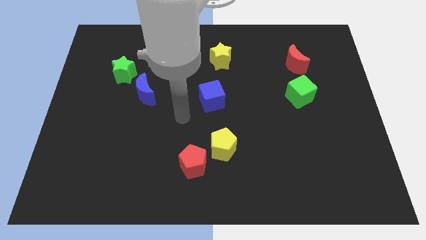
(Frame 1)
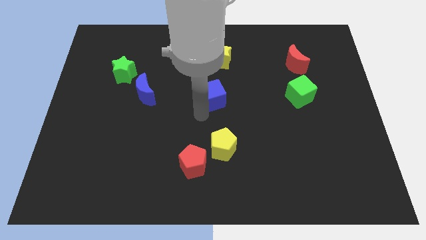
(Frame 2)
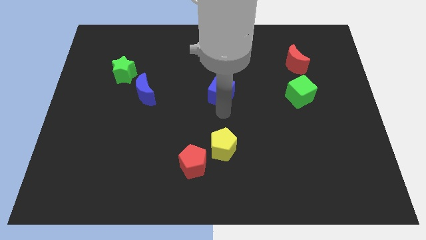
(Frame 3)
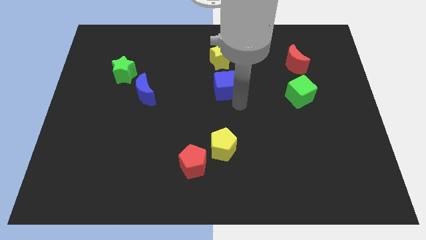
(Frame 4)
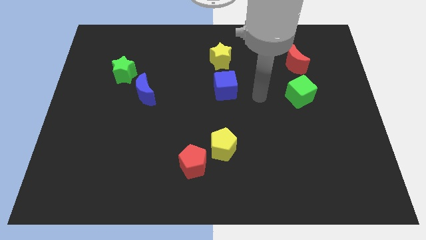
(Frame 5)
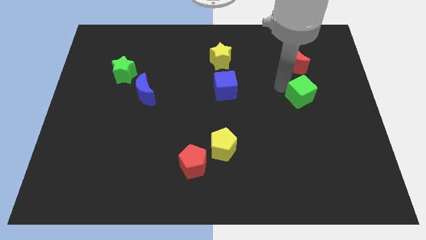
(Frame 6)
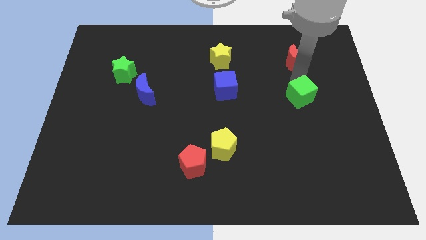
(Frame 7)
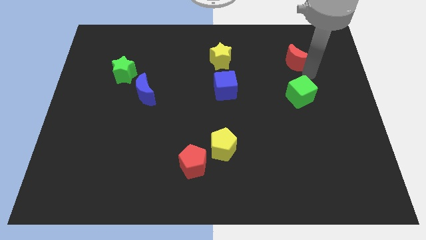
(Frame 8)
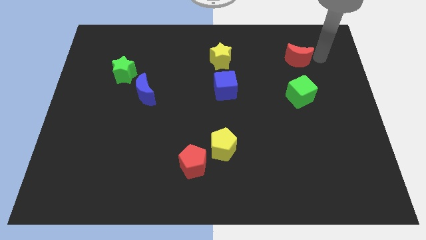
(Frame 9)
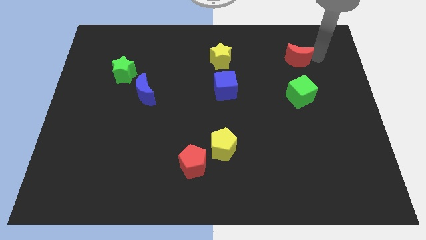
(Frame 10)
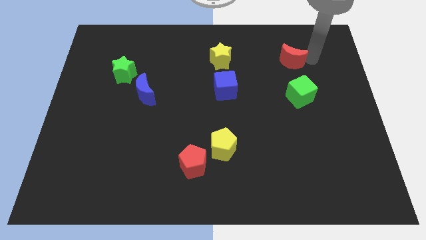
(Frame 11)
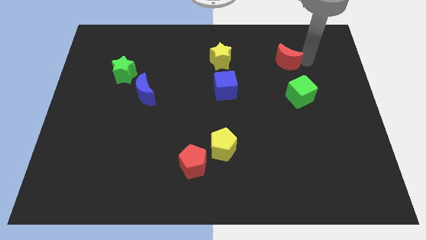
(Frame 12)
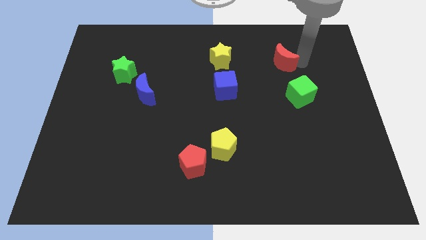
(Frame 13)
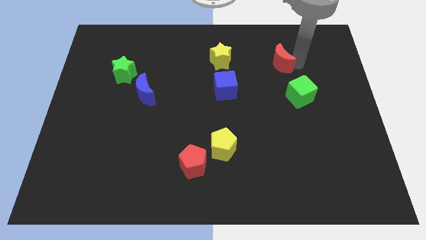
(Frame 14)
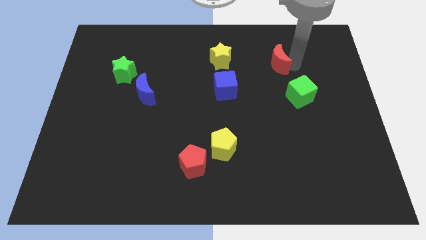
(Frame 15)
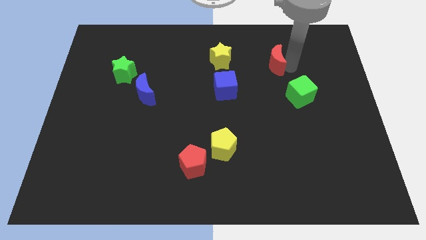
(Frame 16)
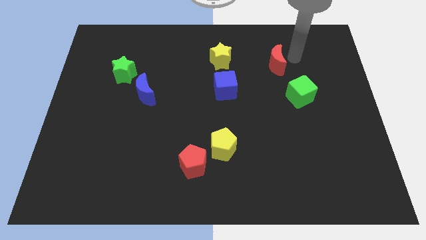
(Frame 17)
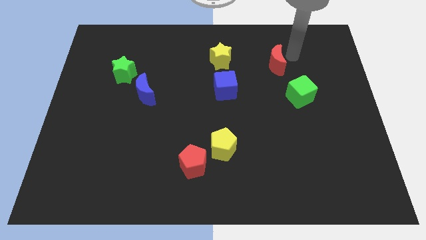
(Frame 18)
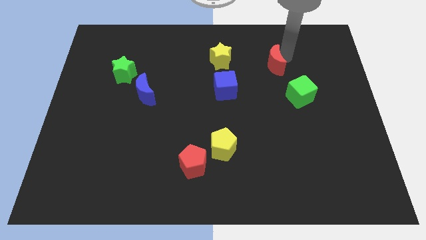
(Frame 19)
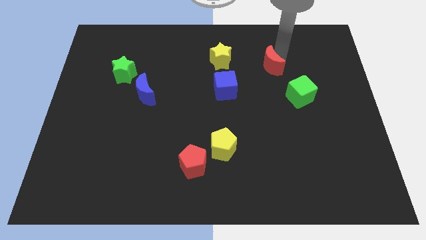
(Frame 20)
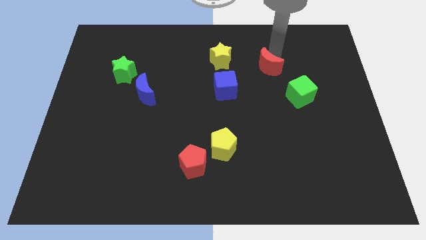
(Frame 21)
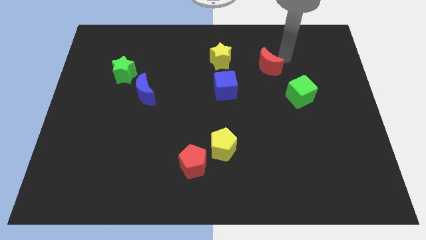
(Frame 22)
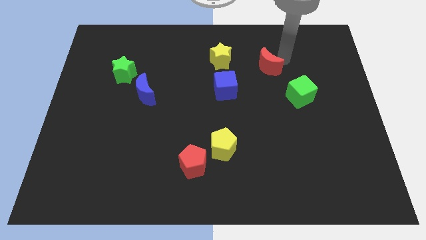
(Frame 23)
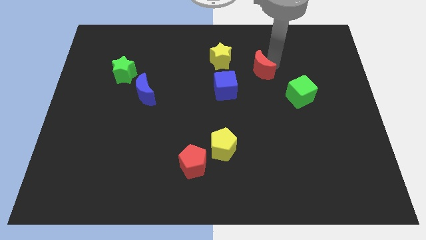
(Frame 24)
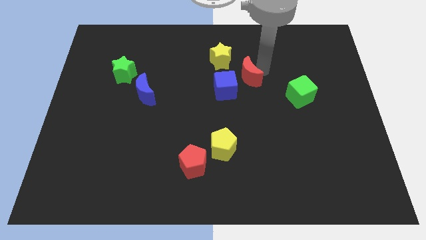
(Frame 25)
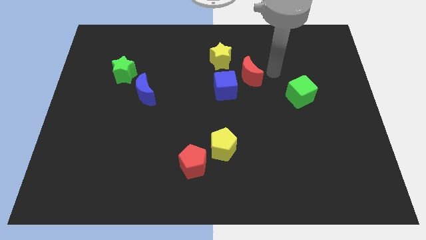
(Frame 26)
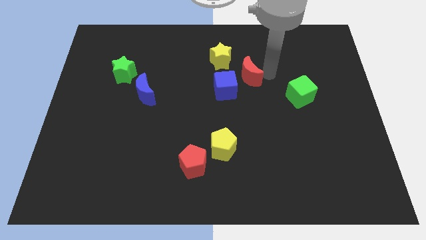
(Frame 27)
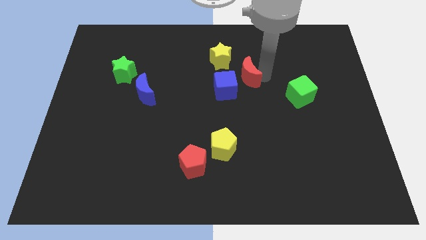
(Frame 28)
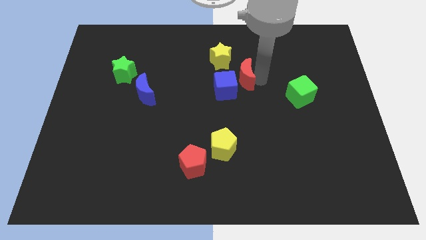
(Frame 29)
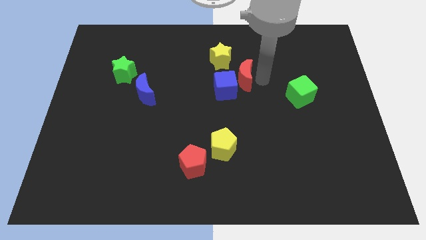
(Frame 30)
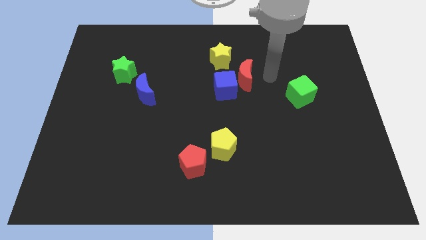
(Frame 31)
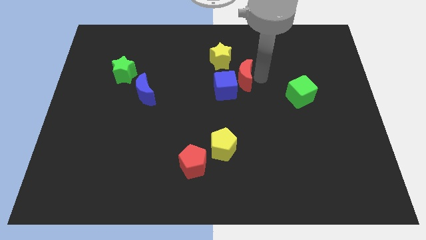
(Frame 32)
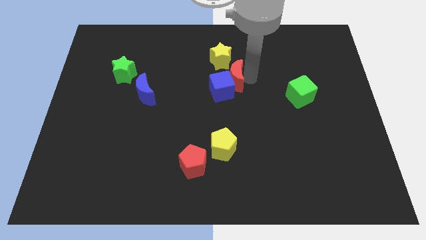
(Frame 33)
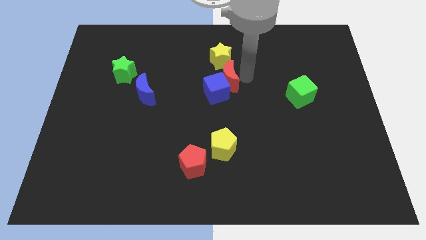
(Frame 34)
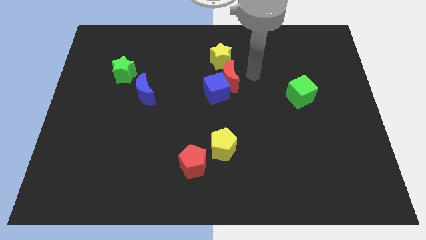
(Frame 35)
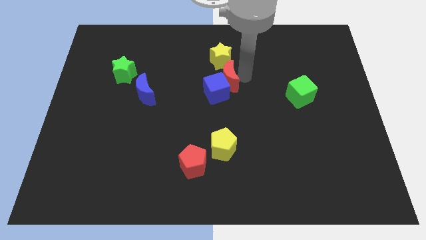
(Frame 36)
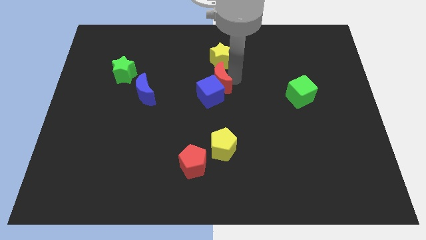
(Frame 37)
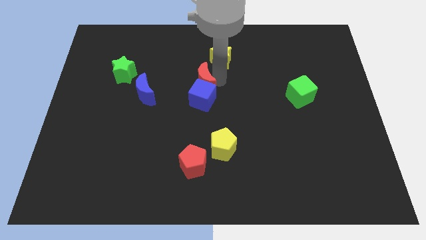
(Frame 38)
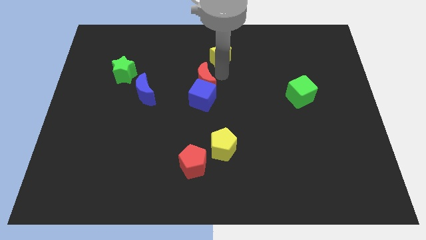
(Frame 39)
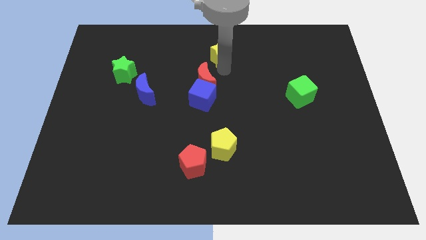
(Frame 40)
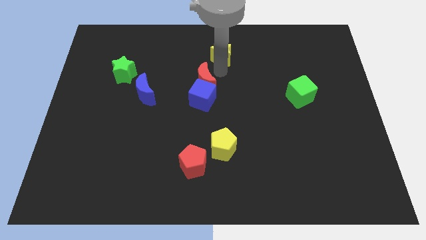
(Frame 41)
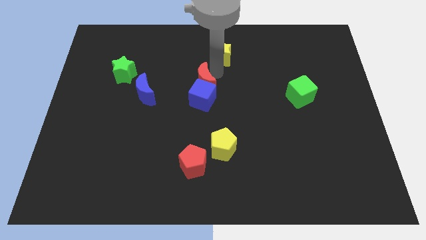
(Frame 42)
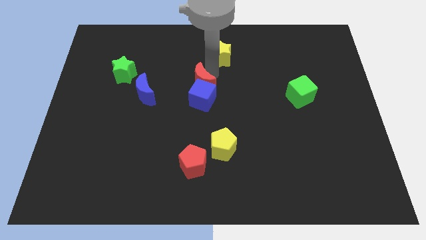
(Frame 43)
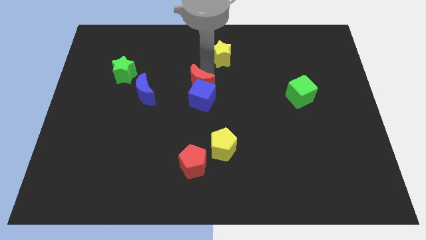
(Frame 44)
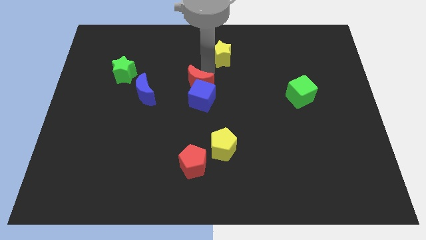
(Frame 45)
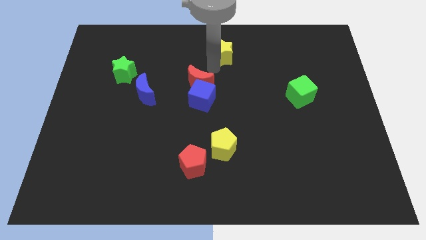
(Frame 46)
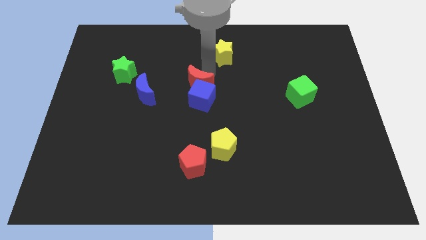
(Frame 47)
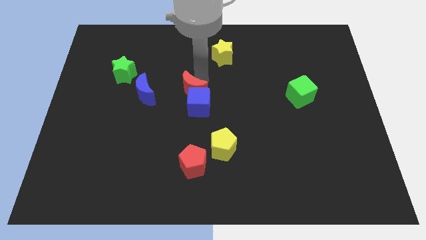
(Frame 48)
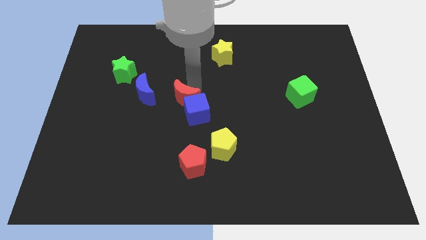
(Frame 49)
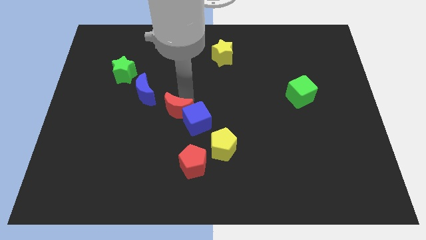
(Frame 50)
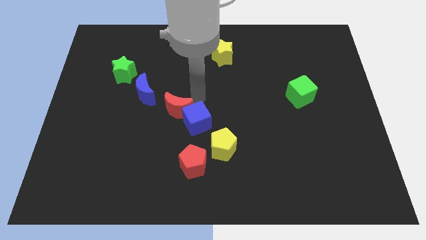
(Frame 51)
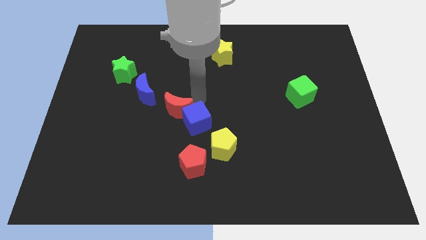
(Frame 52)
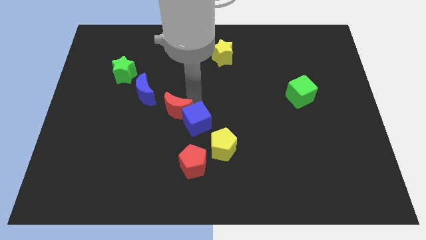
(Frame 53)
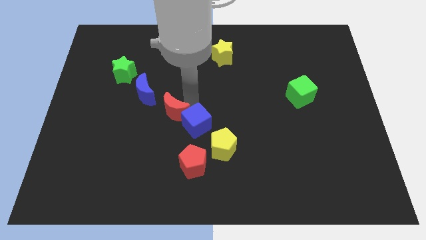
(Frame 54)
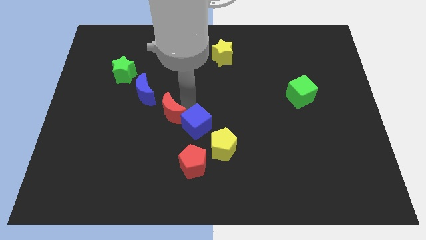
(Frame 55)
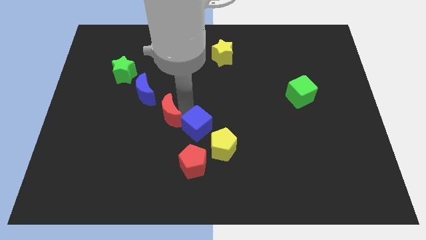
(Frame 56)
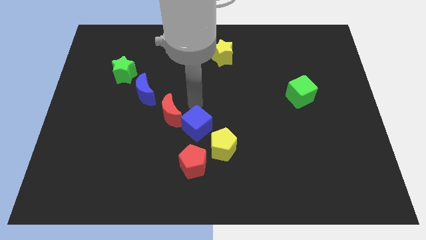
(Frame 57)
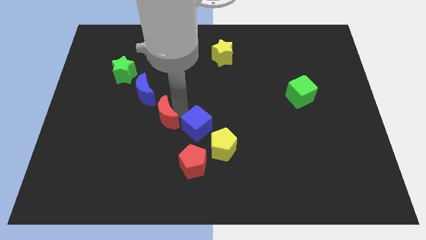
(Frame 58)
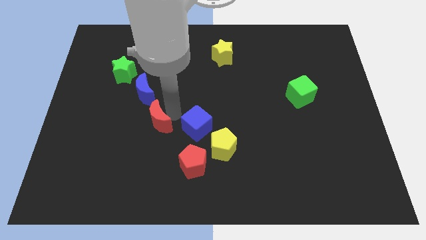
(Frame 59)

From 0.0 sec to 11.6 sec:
move the red moon to the bottom of the blue moon

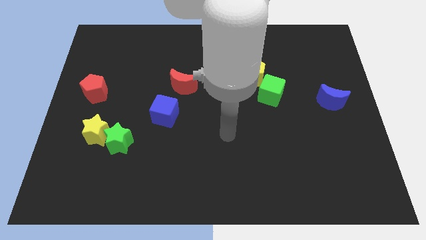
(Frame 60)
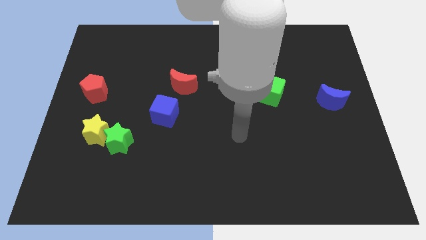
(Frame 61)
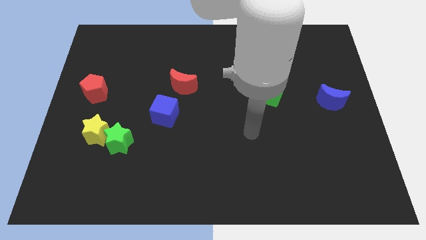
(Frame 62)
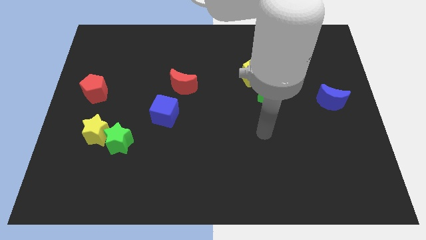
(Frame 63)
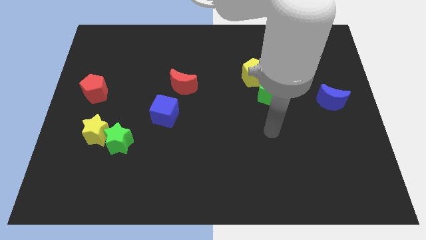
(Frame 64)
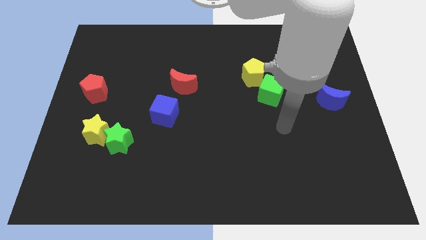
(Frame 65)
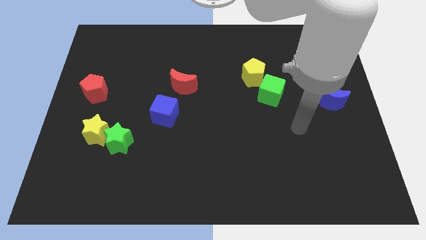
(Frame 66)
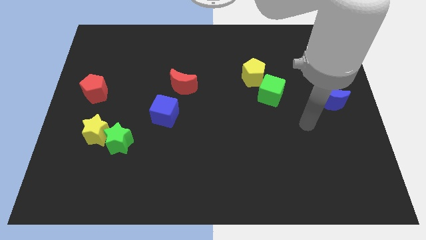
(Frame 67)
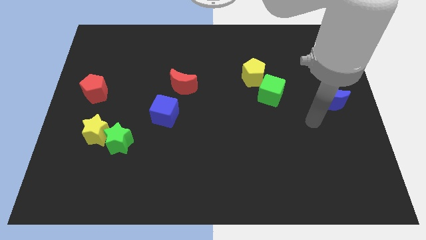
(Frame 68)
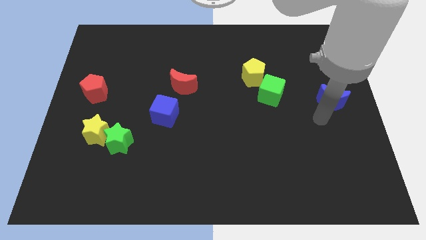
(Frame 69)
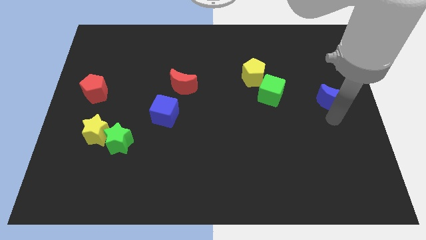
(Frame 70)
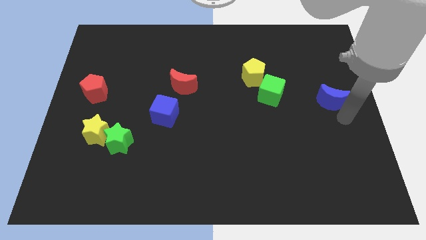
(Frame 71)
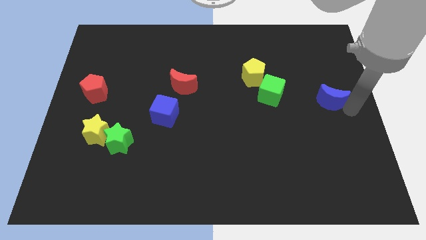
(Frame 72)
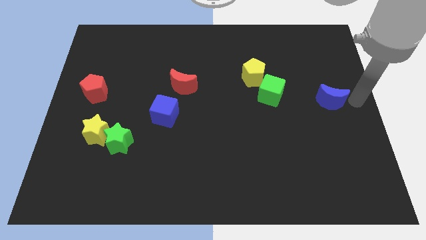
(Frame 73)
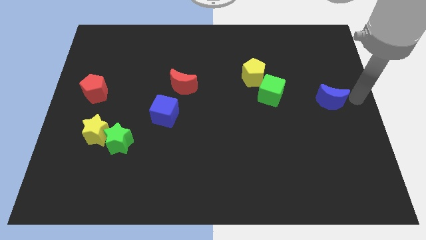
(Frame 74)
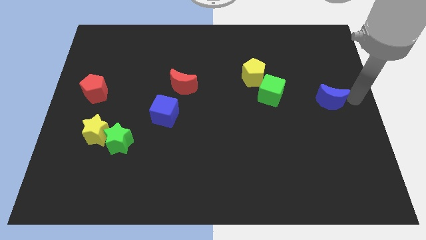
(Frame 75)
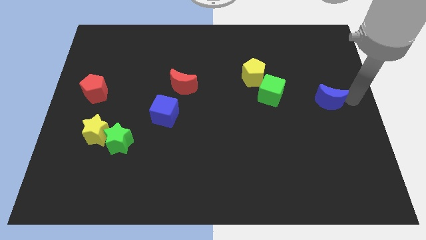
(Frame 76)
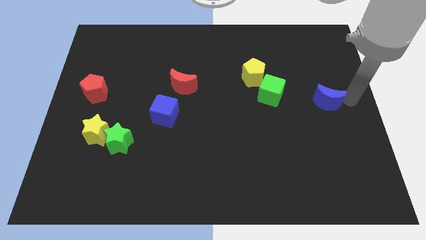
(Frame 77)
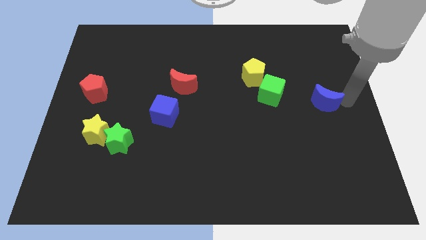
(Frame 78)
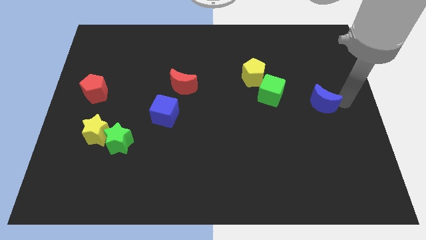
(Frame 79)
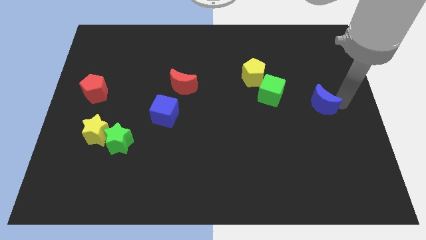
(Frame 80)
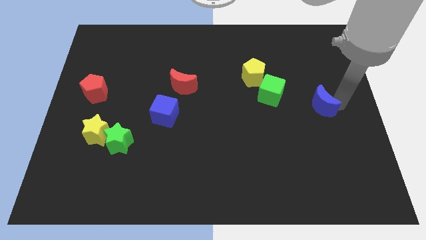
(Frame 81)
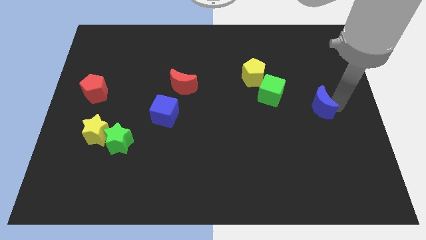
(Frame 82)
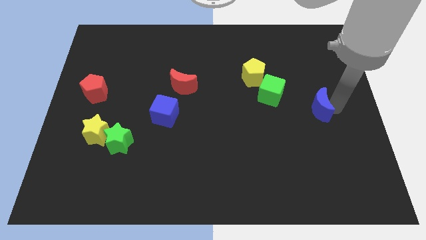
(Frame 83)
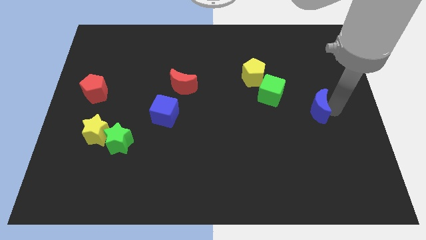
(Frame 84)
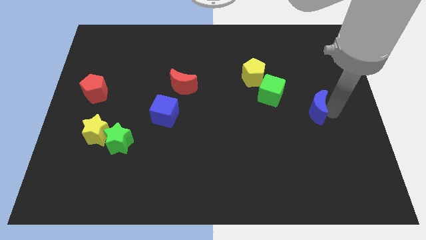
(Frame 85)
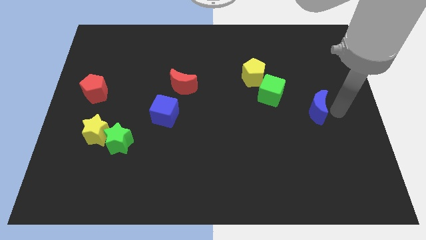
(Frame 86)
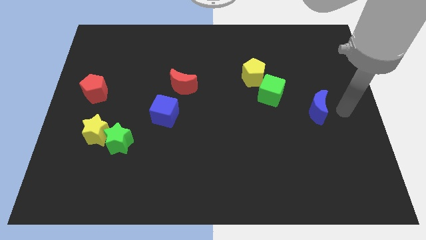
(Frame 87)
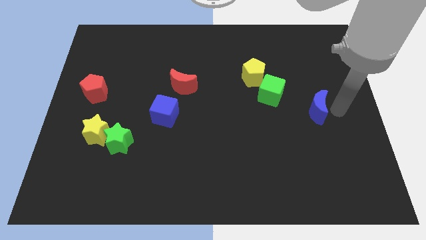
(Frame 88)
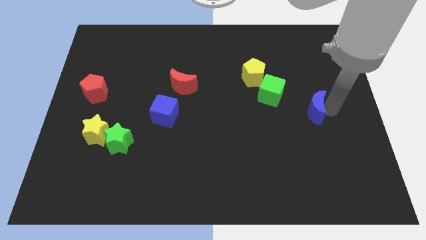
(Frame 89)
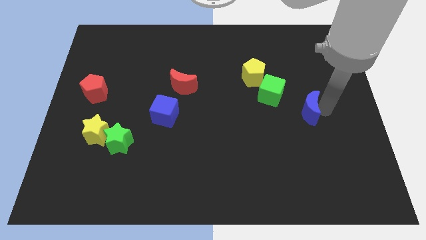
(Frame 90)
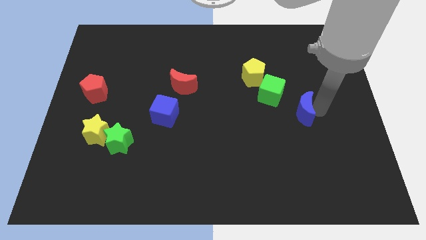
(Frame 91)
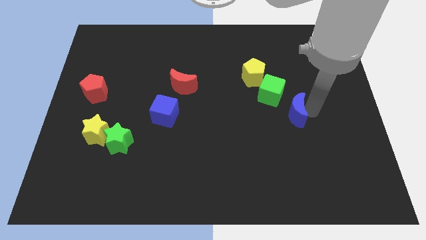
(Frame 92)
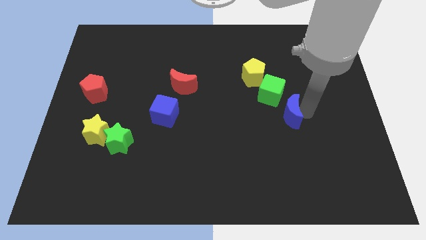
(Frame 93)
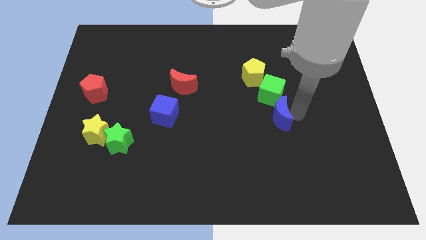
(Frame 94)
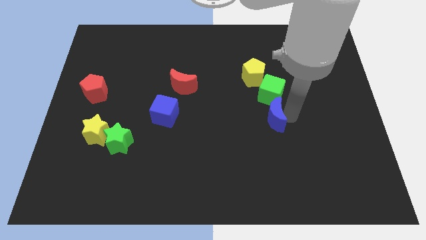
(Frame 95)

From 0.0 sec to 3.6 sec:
slide the blue moon below the yellow pentagon
